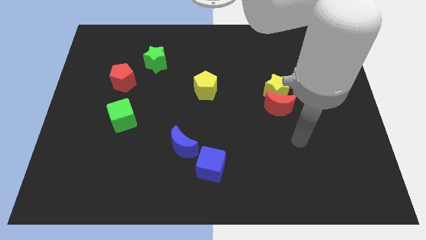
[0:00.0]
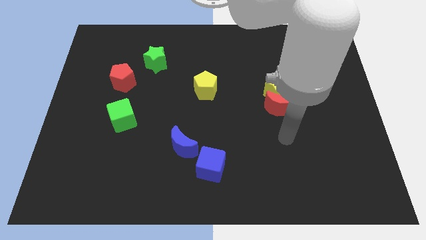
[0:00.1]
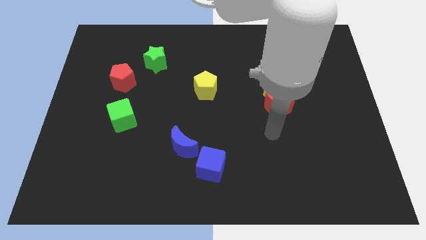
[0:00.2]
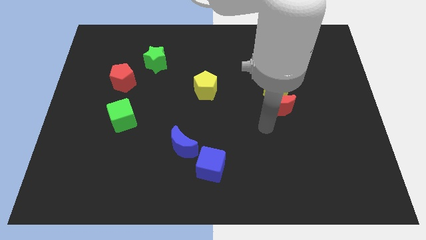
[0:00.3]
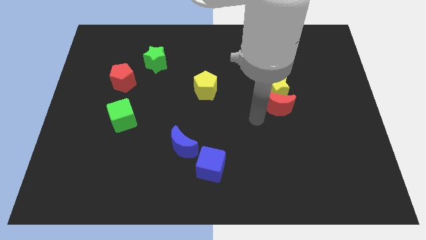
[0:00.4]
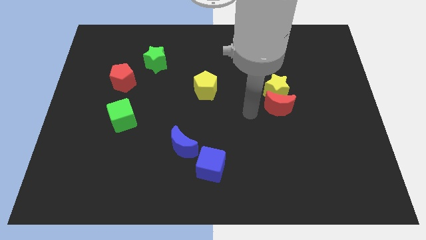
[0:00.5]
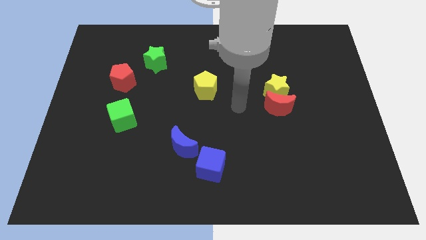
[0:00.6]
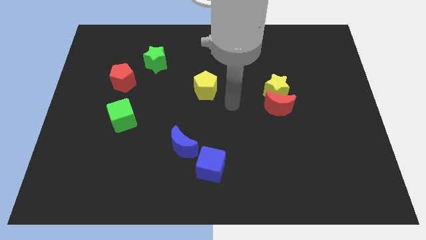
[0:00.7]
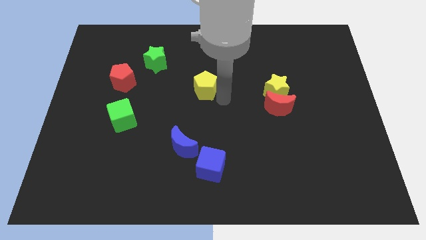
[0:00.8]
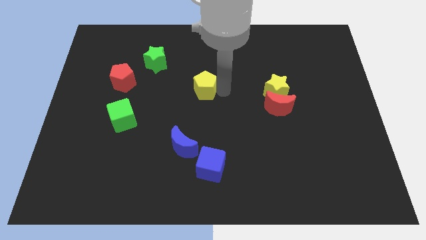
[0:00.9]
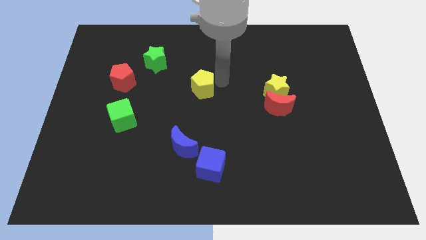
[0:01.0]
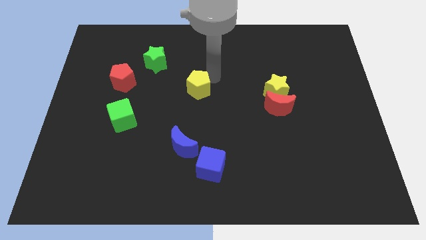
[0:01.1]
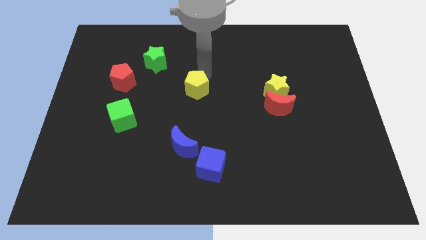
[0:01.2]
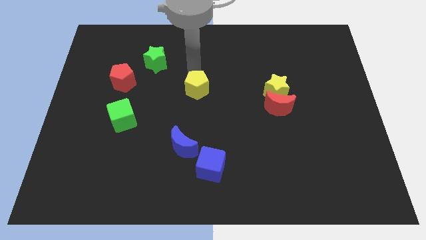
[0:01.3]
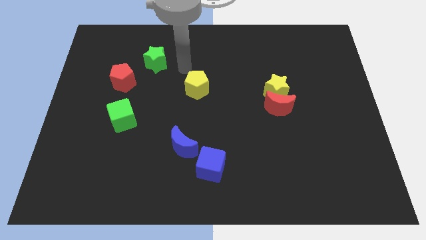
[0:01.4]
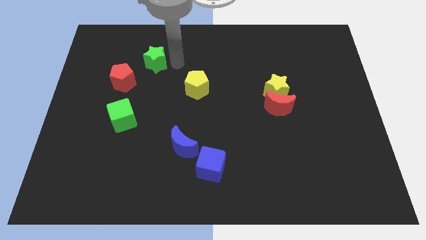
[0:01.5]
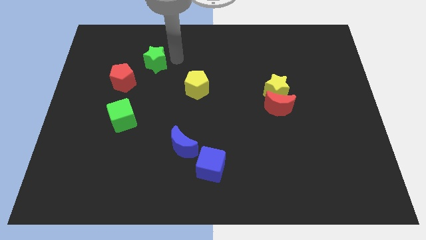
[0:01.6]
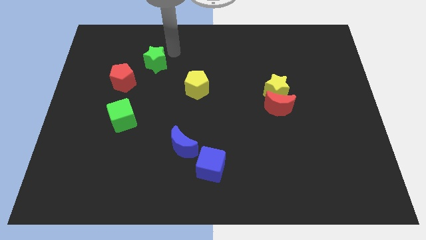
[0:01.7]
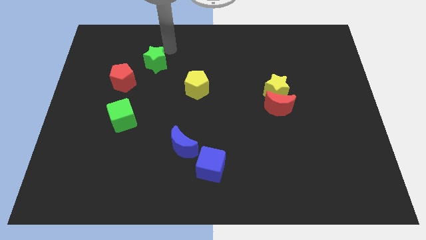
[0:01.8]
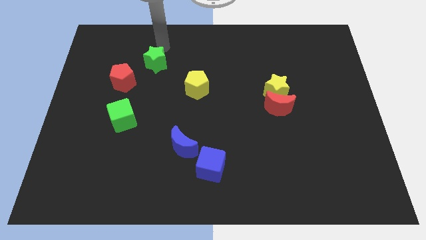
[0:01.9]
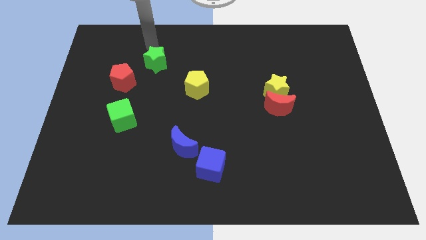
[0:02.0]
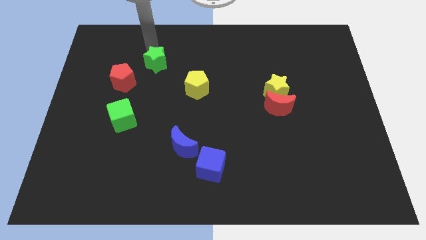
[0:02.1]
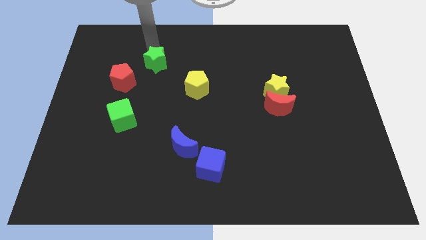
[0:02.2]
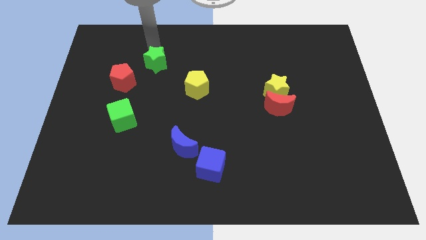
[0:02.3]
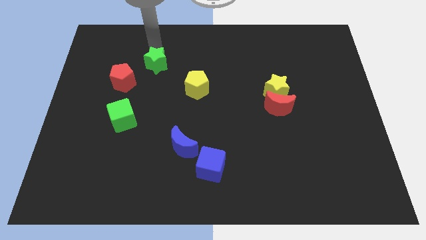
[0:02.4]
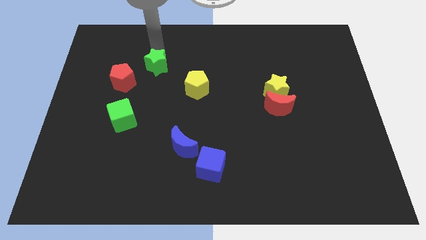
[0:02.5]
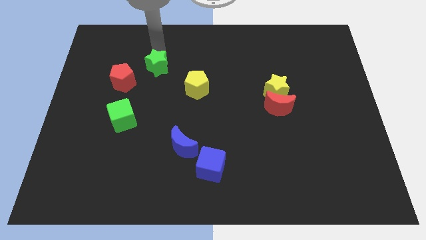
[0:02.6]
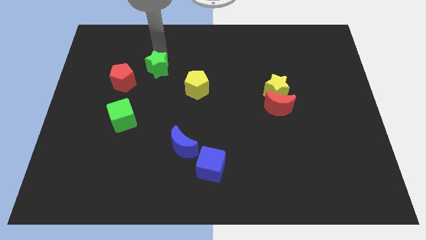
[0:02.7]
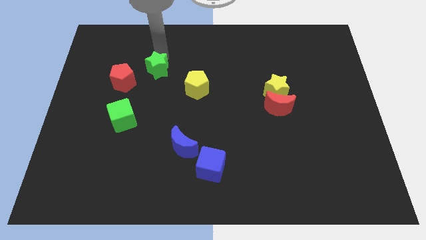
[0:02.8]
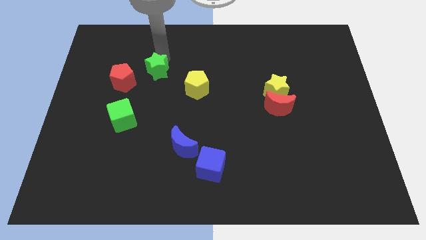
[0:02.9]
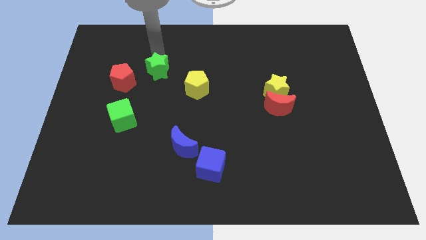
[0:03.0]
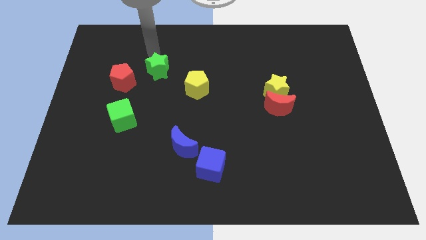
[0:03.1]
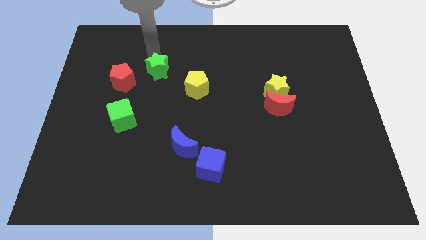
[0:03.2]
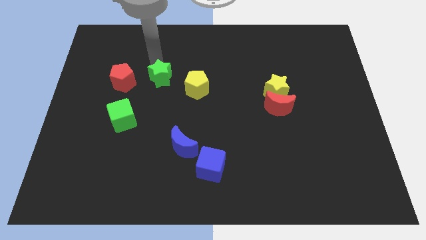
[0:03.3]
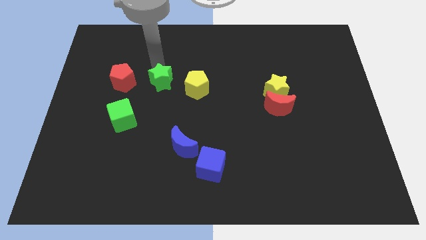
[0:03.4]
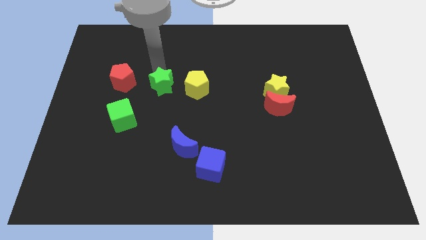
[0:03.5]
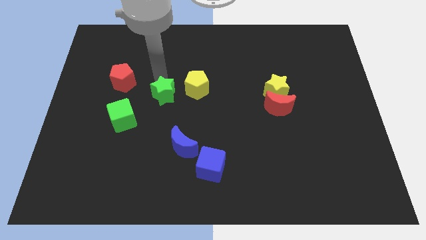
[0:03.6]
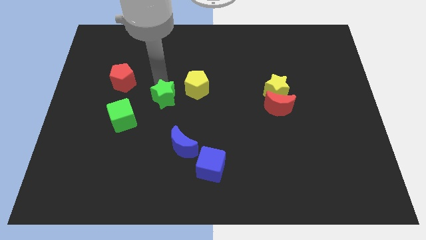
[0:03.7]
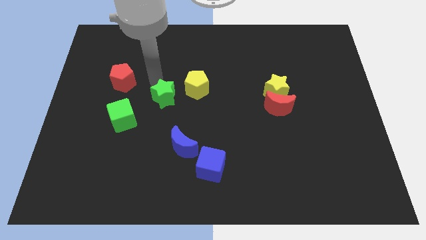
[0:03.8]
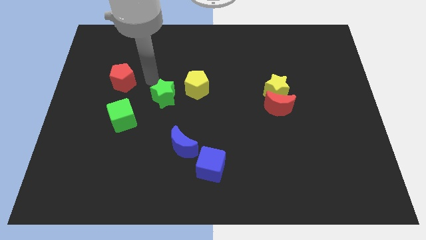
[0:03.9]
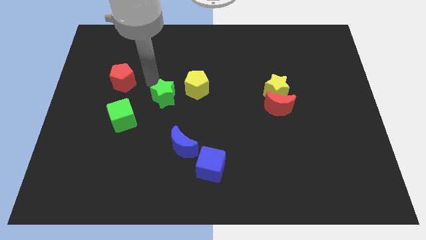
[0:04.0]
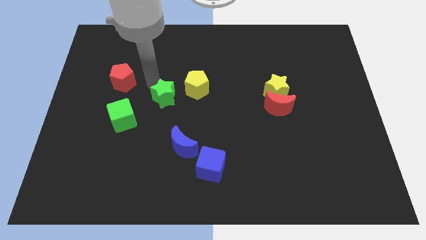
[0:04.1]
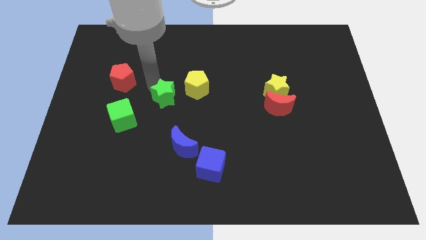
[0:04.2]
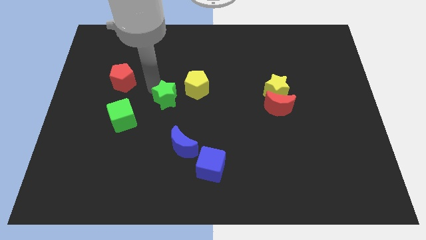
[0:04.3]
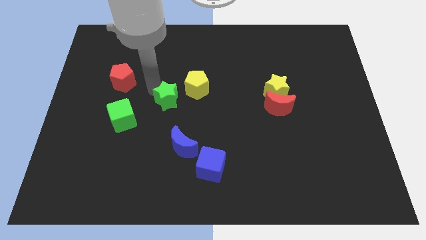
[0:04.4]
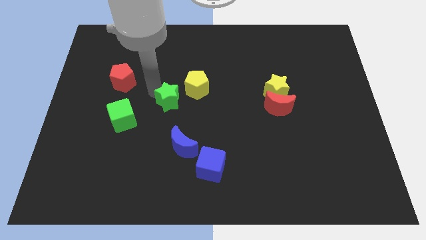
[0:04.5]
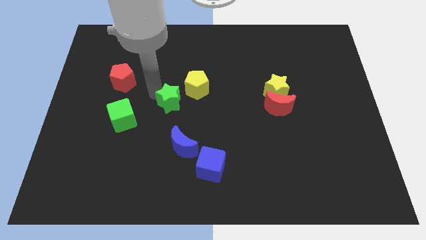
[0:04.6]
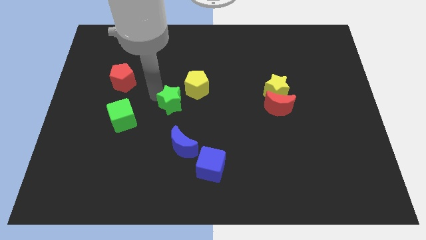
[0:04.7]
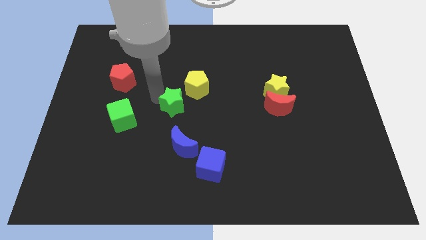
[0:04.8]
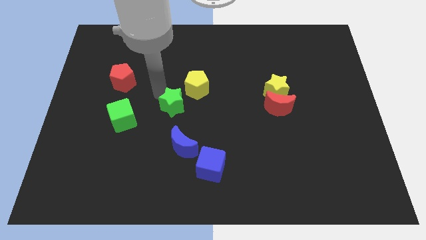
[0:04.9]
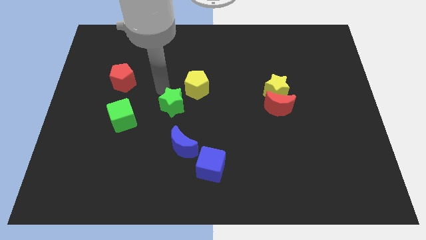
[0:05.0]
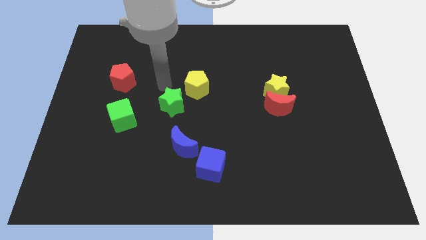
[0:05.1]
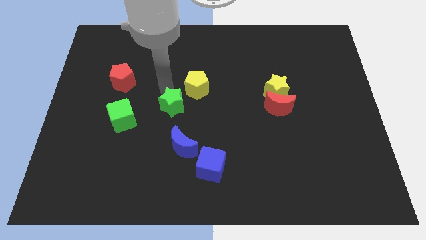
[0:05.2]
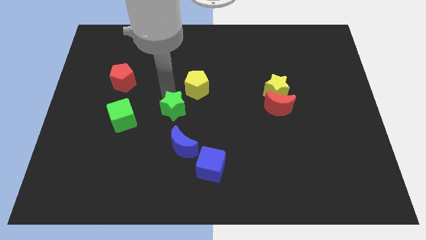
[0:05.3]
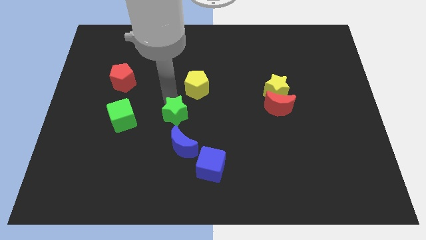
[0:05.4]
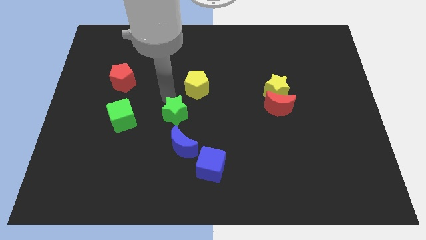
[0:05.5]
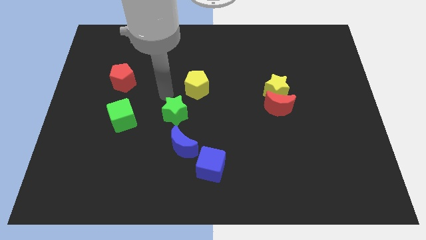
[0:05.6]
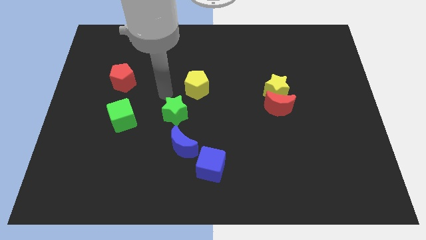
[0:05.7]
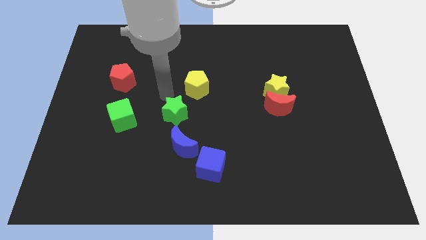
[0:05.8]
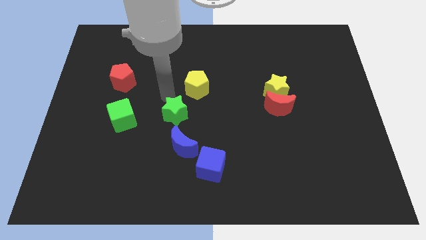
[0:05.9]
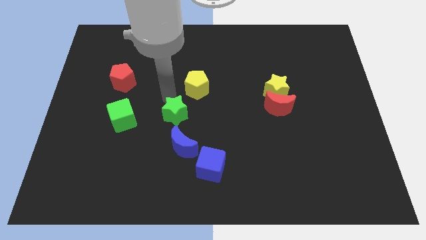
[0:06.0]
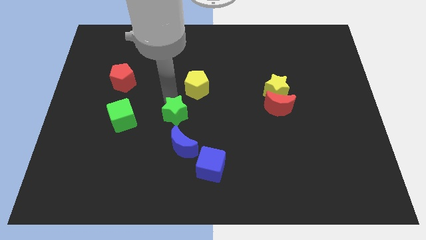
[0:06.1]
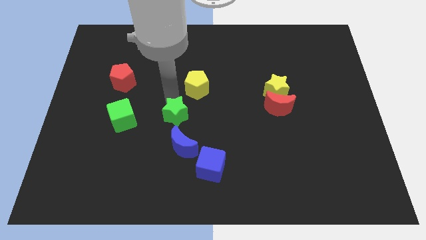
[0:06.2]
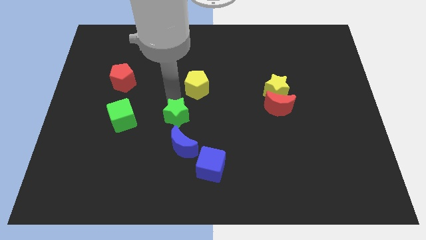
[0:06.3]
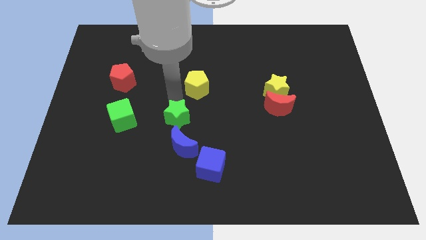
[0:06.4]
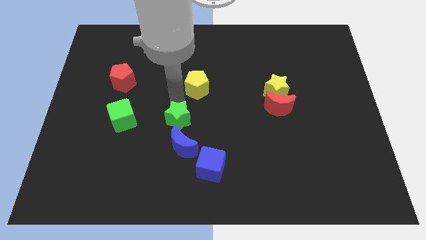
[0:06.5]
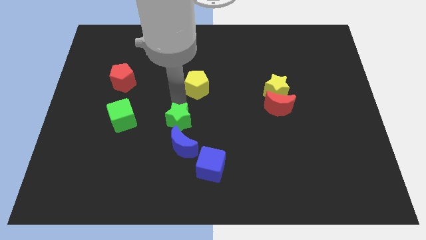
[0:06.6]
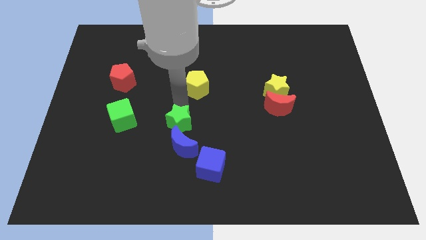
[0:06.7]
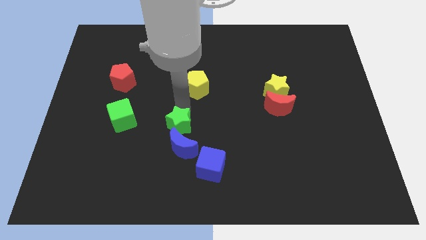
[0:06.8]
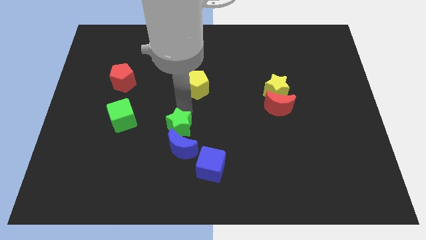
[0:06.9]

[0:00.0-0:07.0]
put the green star towards the blue moon

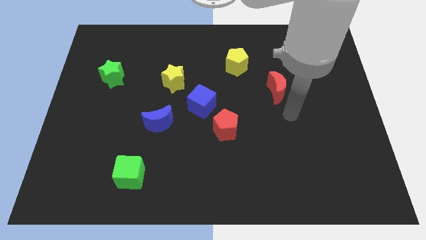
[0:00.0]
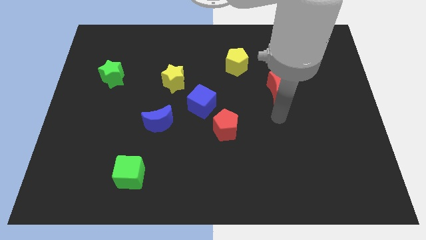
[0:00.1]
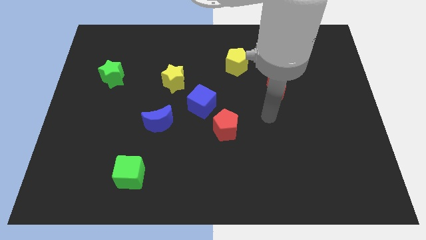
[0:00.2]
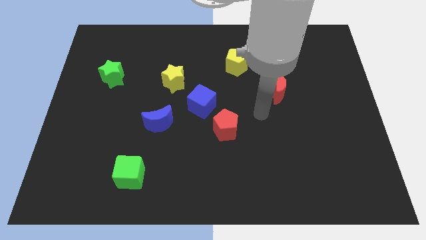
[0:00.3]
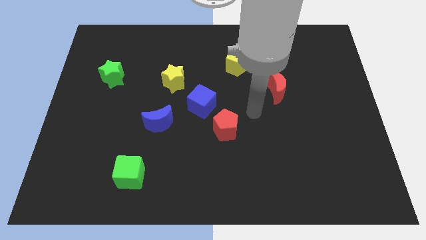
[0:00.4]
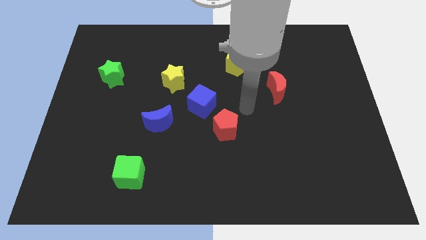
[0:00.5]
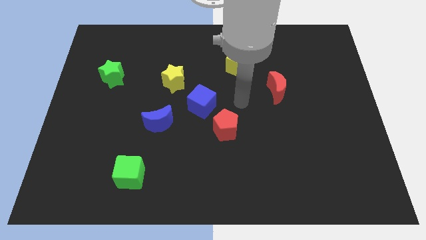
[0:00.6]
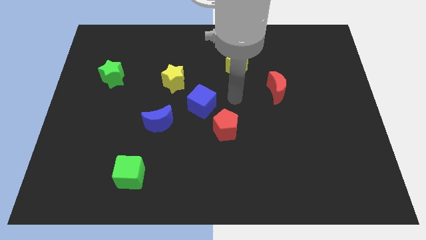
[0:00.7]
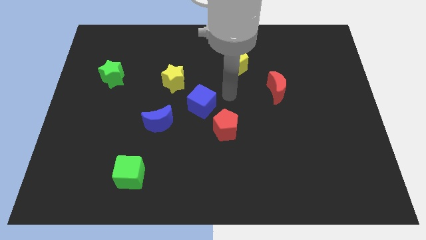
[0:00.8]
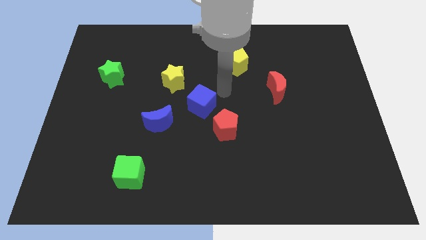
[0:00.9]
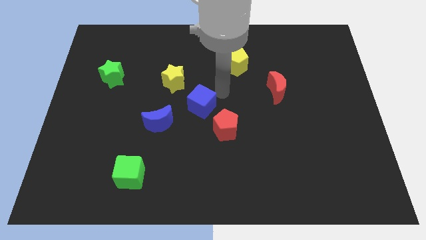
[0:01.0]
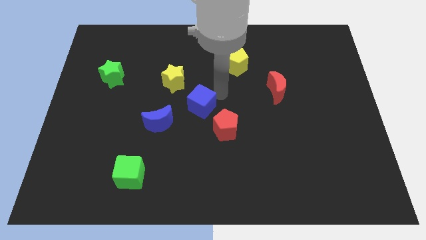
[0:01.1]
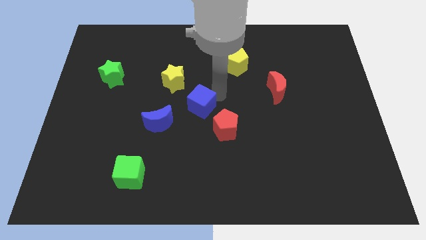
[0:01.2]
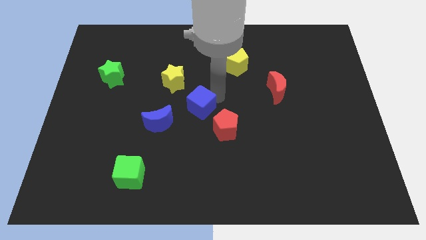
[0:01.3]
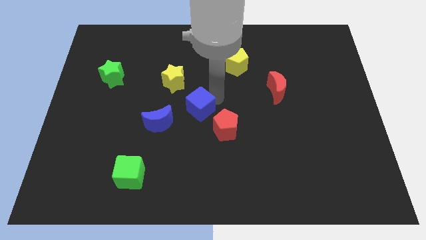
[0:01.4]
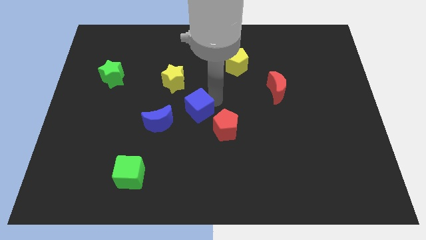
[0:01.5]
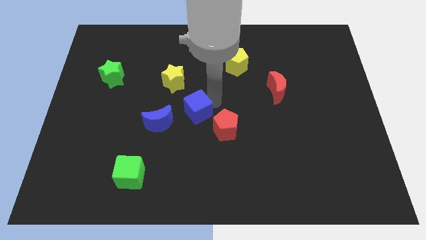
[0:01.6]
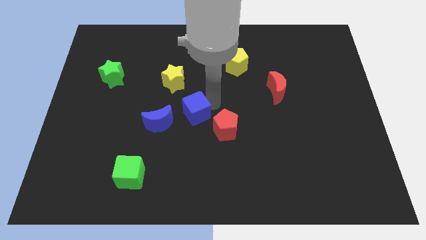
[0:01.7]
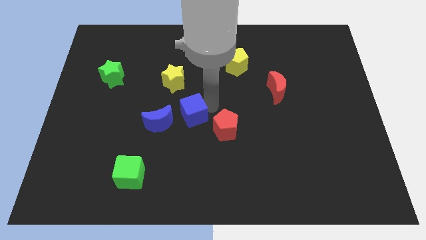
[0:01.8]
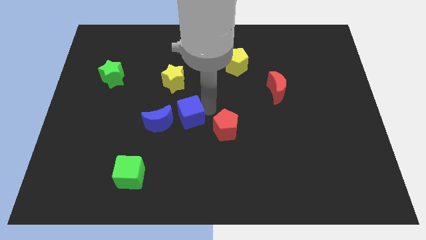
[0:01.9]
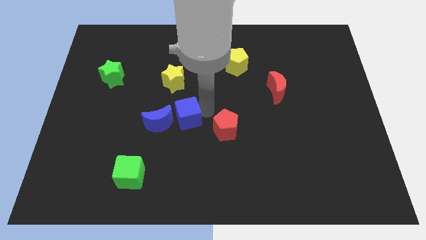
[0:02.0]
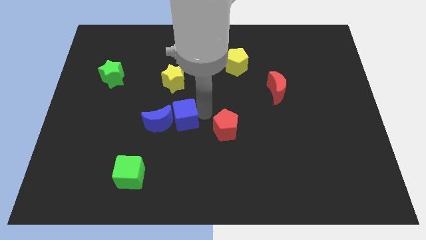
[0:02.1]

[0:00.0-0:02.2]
push the blue cube towards the blue moon
